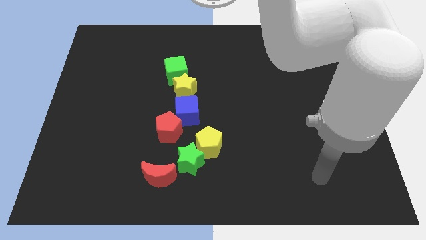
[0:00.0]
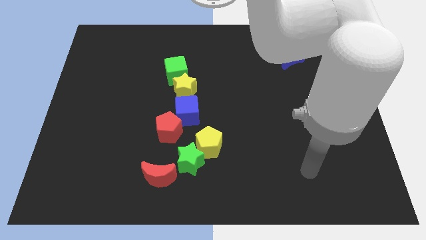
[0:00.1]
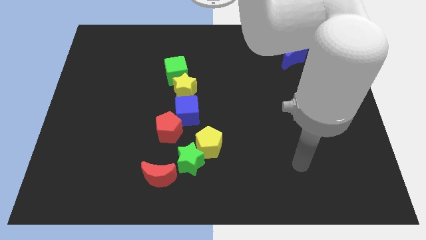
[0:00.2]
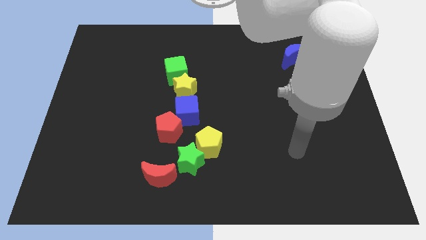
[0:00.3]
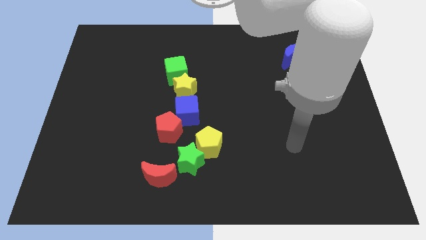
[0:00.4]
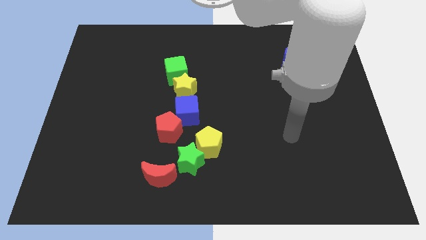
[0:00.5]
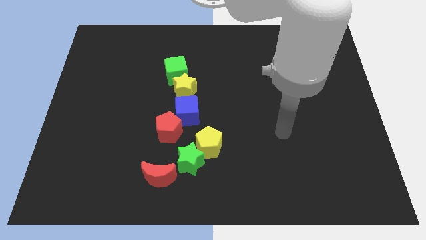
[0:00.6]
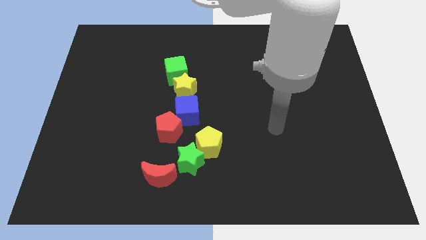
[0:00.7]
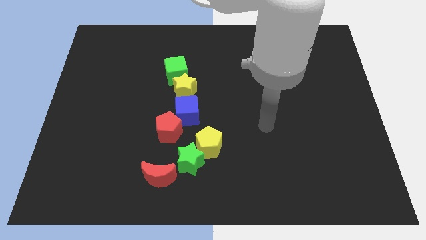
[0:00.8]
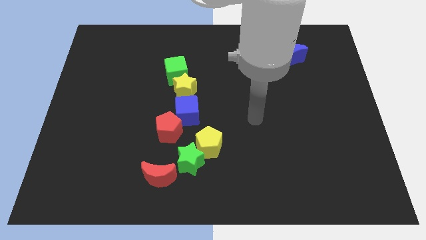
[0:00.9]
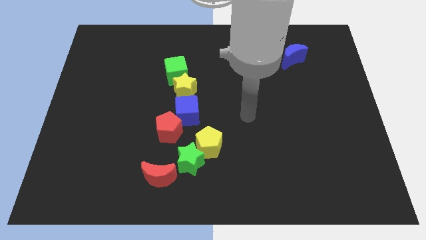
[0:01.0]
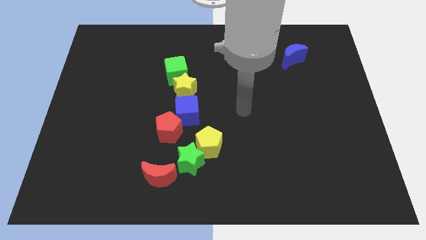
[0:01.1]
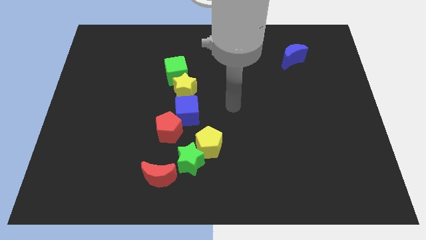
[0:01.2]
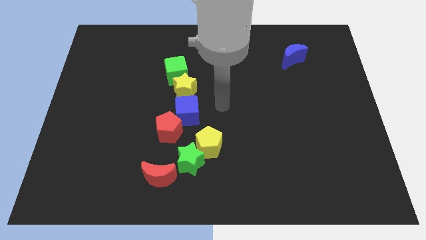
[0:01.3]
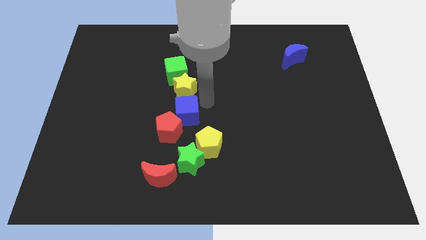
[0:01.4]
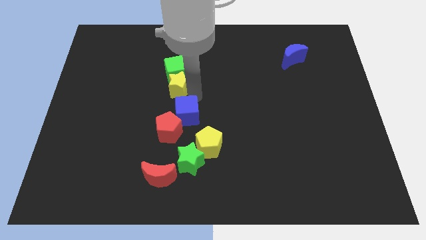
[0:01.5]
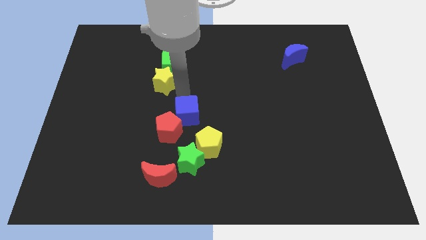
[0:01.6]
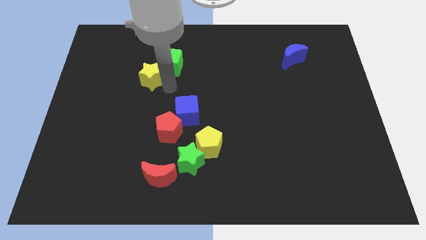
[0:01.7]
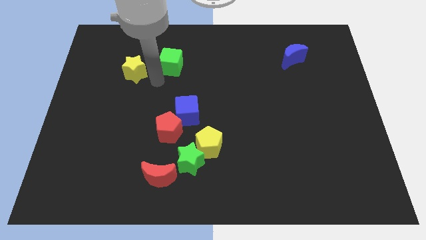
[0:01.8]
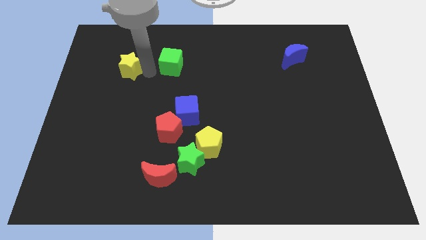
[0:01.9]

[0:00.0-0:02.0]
move the green cube away from the yellow star

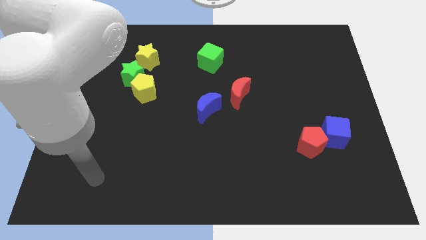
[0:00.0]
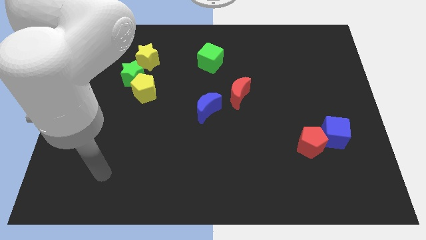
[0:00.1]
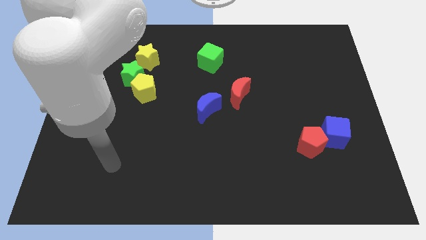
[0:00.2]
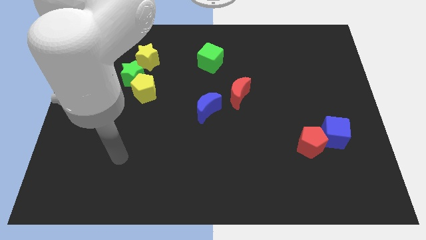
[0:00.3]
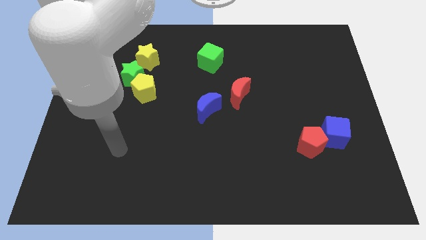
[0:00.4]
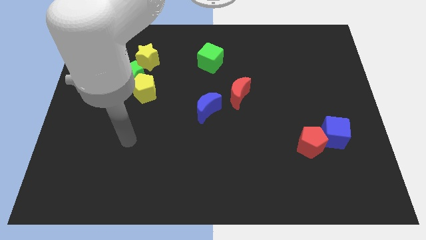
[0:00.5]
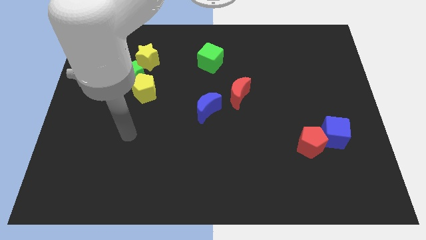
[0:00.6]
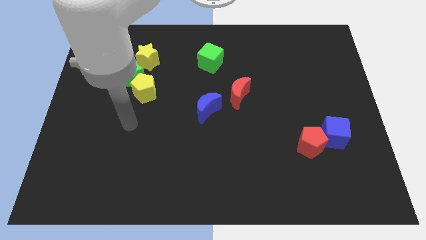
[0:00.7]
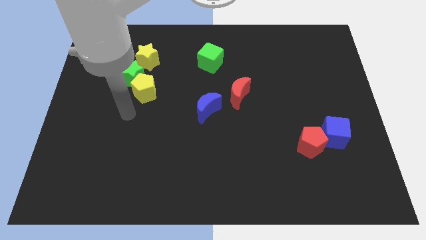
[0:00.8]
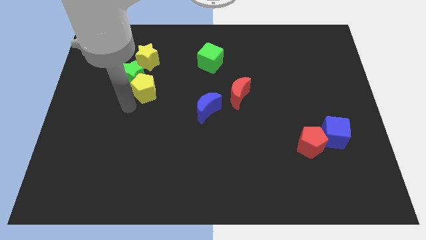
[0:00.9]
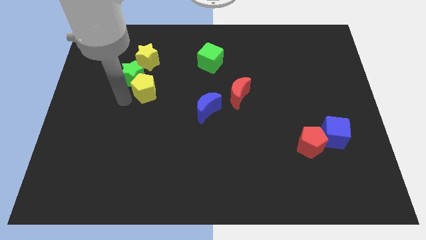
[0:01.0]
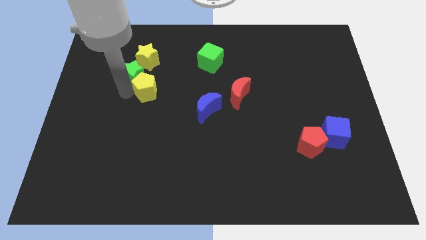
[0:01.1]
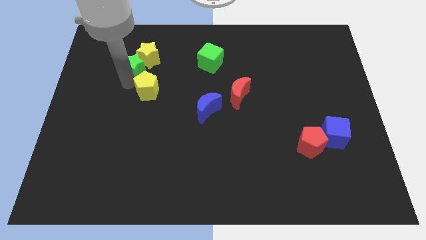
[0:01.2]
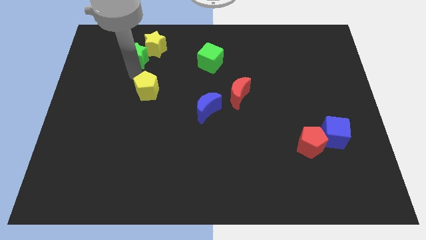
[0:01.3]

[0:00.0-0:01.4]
separate the yellow pentagon from the green star

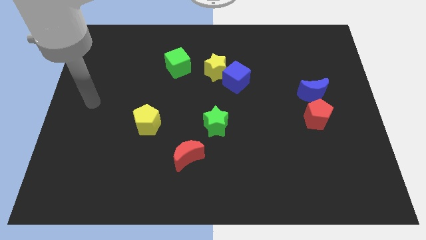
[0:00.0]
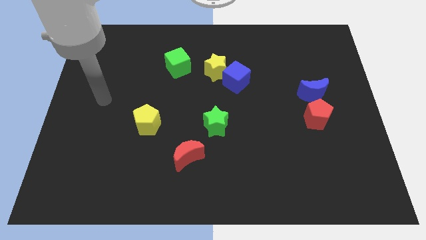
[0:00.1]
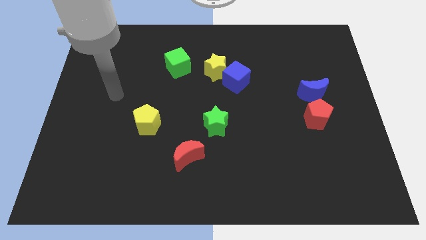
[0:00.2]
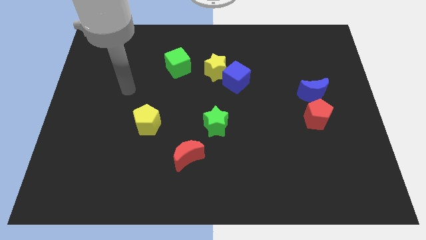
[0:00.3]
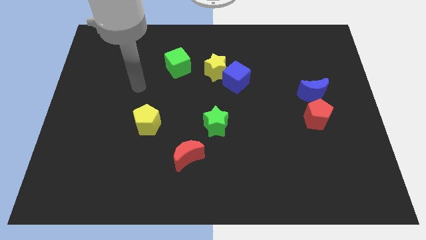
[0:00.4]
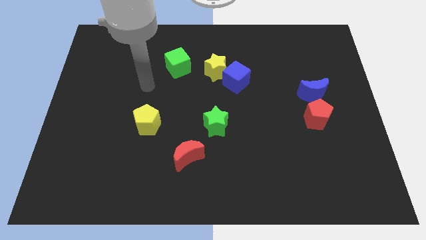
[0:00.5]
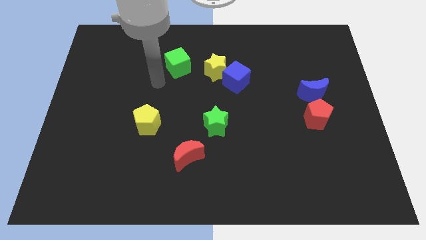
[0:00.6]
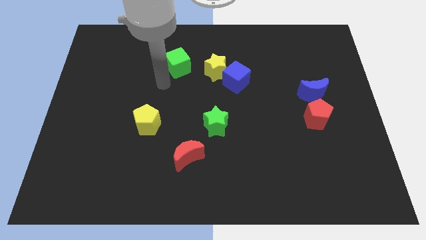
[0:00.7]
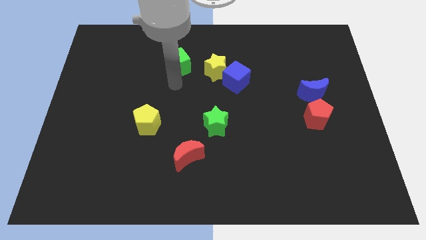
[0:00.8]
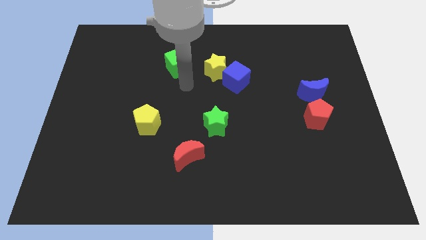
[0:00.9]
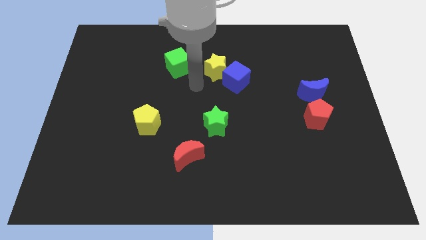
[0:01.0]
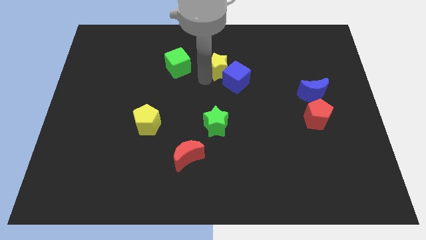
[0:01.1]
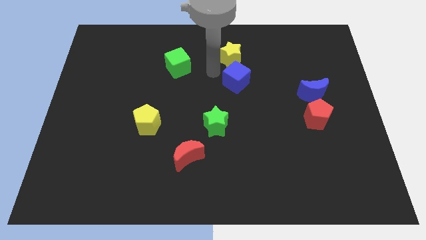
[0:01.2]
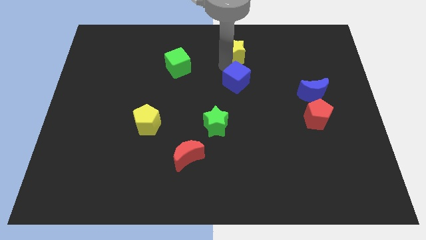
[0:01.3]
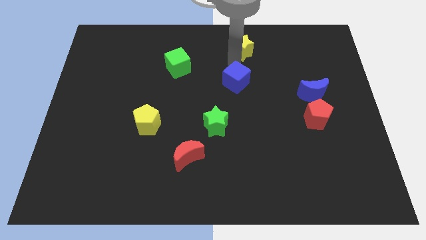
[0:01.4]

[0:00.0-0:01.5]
move the blue cube away from the yellow star

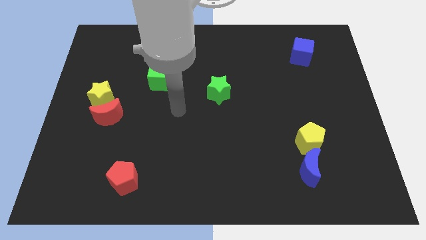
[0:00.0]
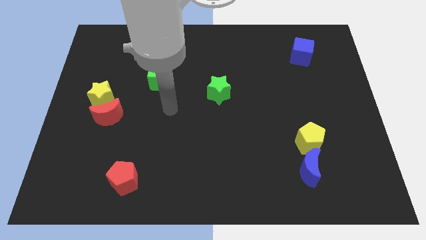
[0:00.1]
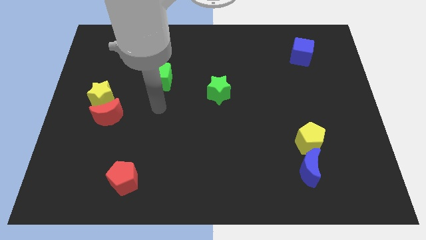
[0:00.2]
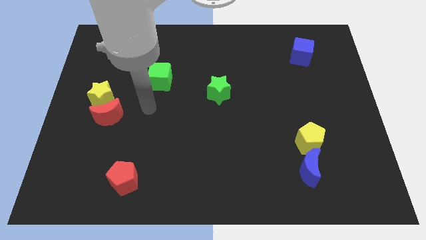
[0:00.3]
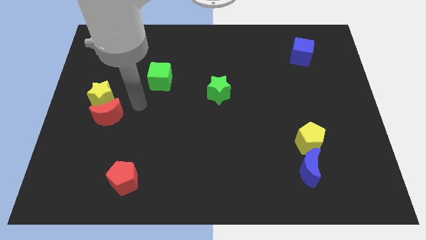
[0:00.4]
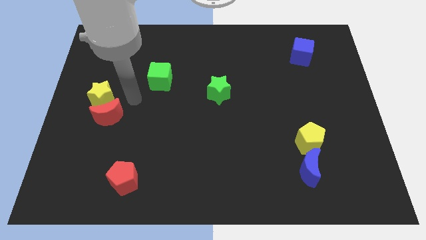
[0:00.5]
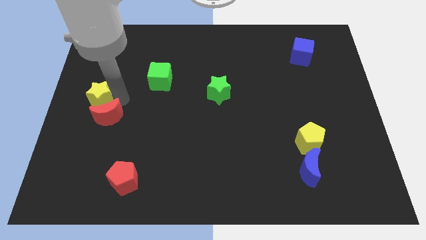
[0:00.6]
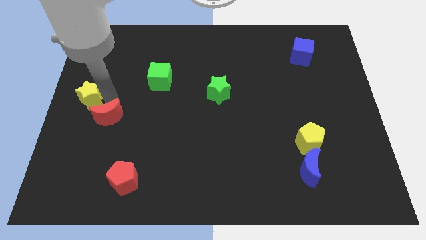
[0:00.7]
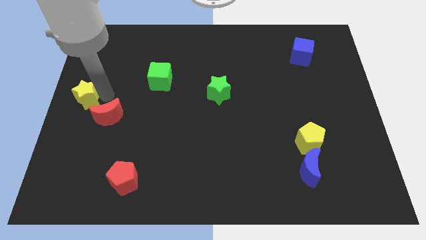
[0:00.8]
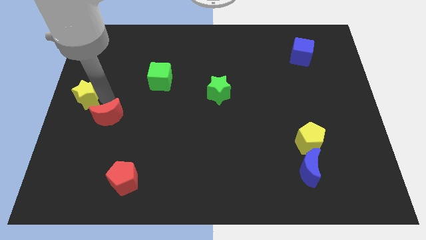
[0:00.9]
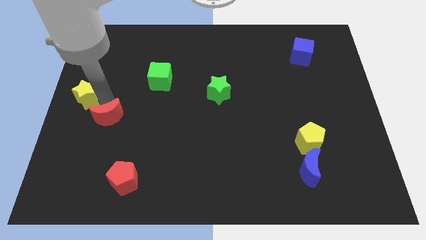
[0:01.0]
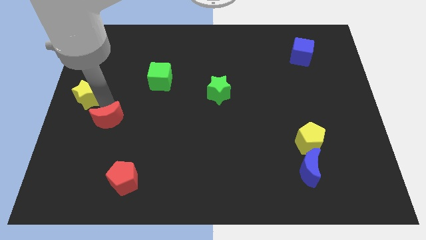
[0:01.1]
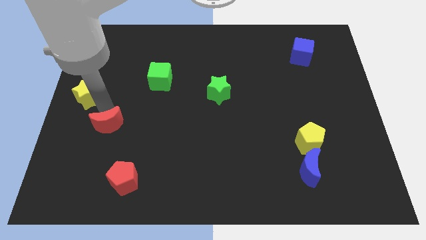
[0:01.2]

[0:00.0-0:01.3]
move the red moon away from the yellow star

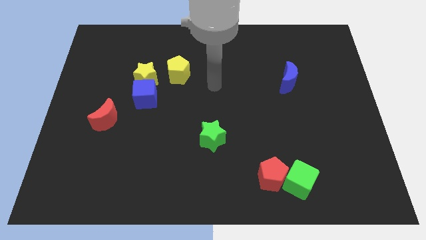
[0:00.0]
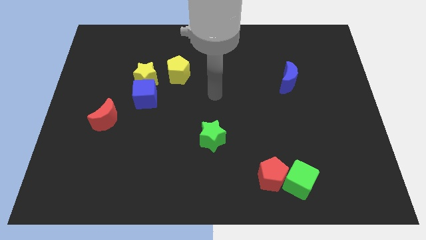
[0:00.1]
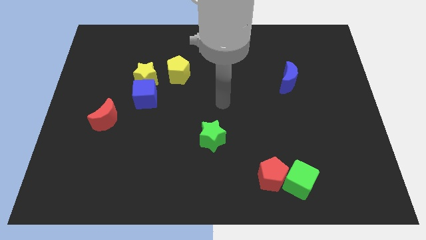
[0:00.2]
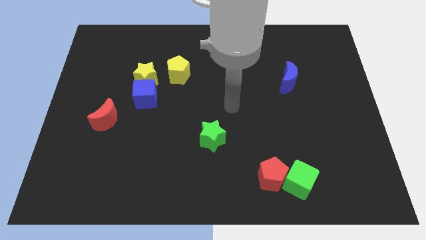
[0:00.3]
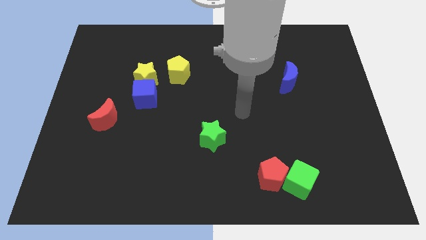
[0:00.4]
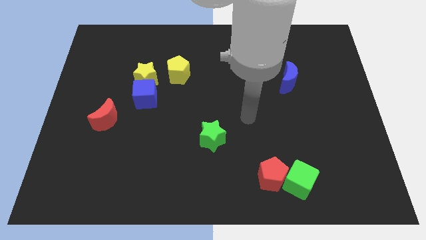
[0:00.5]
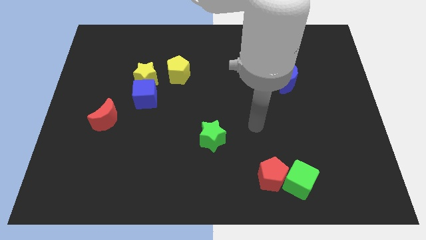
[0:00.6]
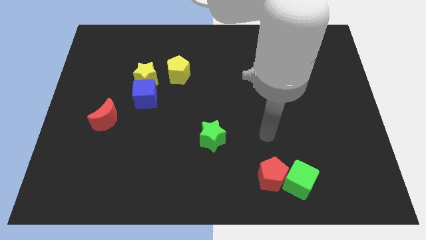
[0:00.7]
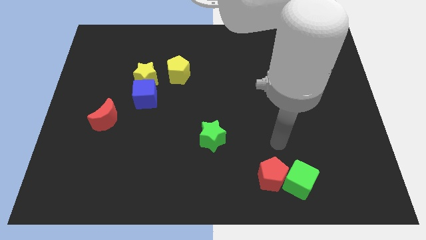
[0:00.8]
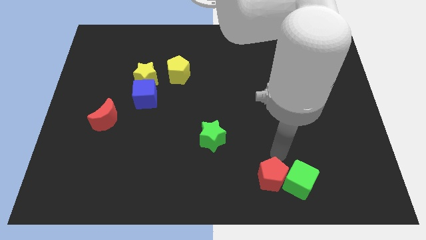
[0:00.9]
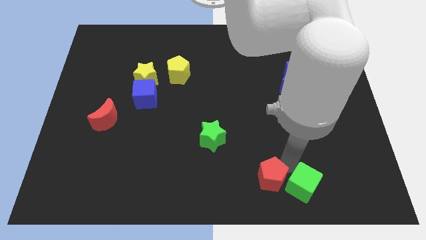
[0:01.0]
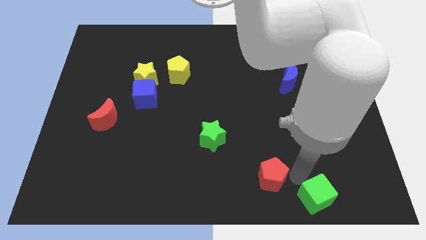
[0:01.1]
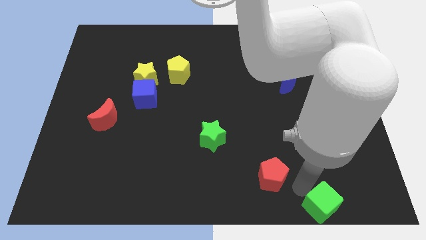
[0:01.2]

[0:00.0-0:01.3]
pull the red pentagon apart from the green cube

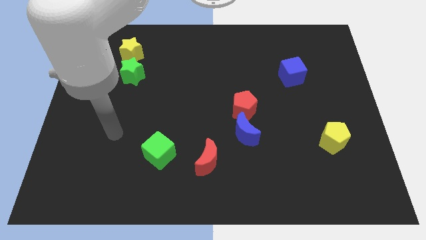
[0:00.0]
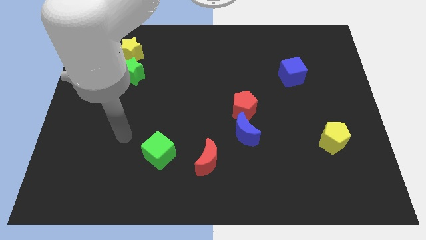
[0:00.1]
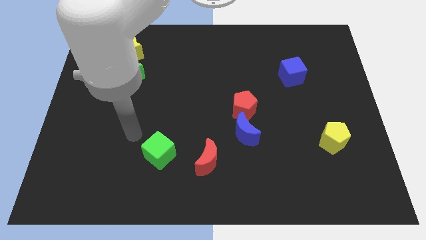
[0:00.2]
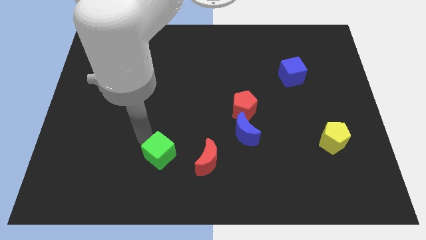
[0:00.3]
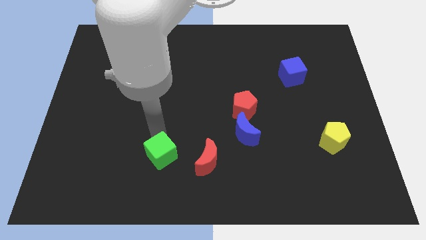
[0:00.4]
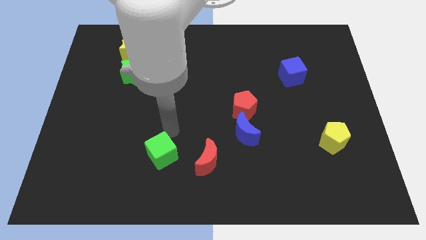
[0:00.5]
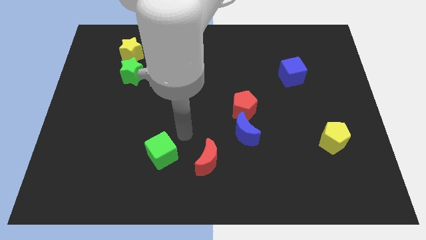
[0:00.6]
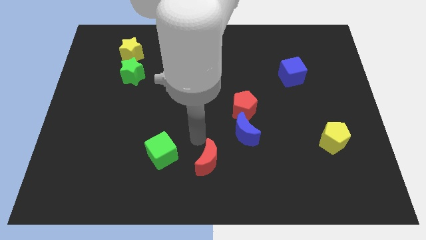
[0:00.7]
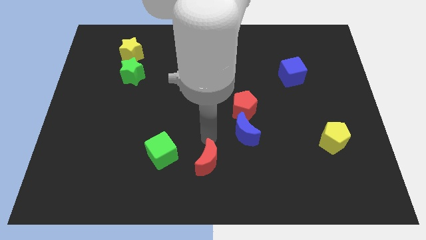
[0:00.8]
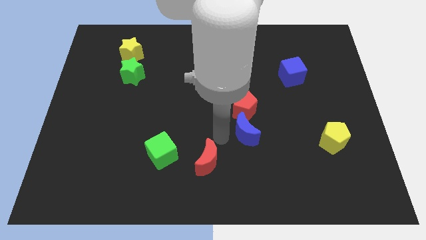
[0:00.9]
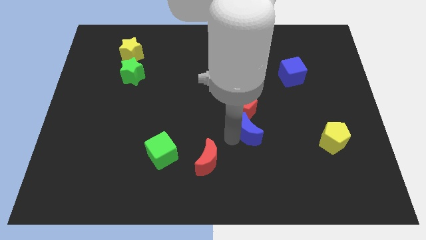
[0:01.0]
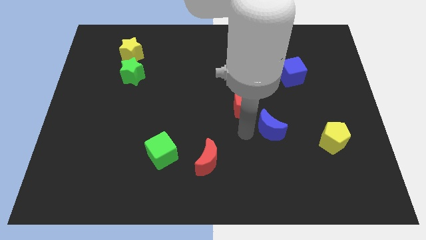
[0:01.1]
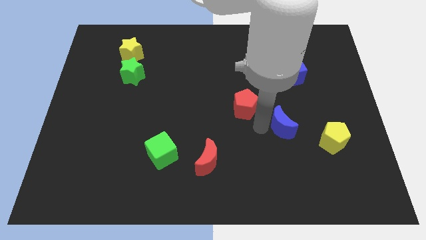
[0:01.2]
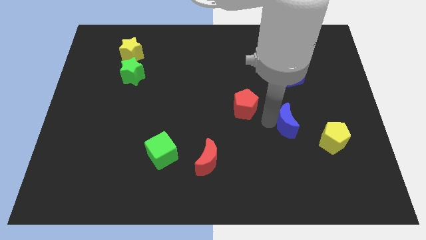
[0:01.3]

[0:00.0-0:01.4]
move the red pentagon away from the blue moon

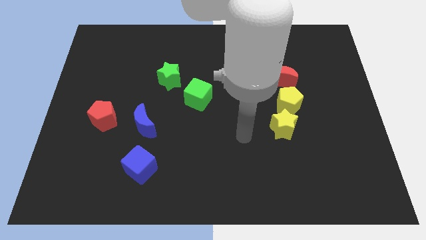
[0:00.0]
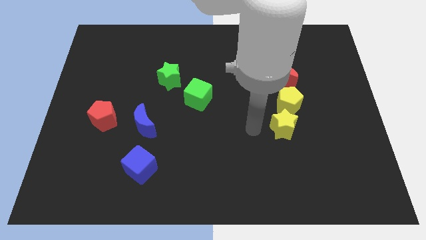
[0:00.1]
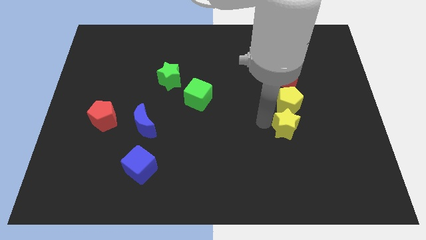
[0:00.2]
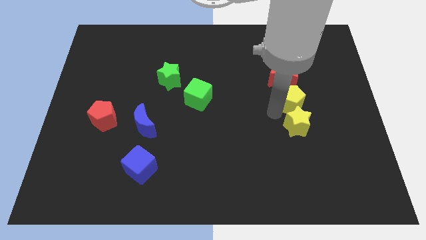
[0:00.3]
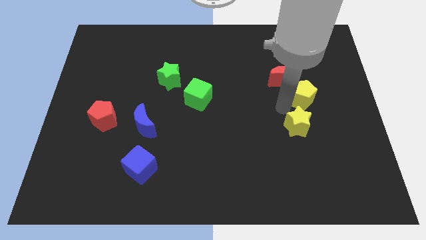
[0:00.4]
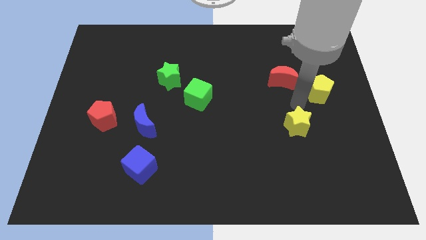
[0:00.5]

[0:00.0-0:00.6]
move the yellow star away from the yellow pentagon
